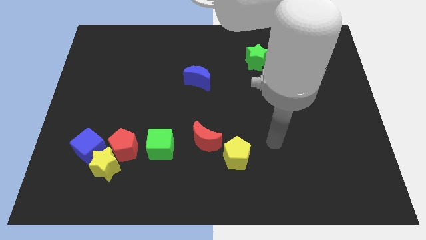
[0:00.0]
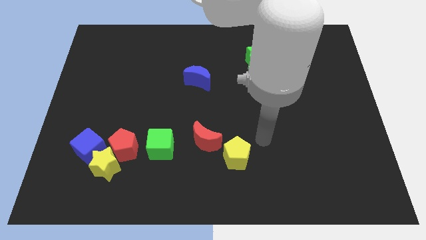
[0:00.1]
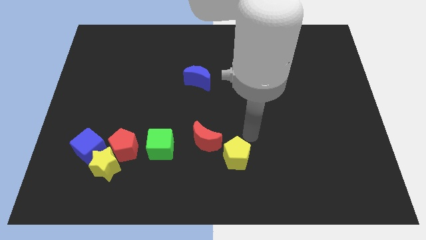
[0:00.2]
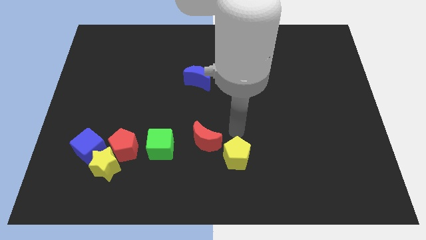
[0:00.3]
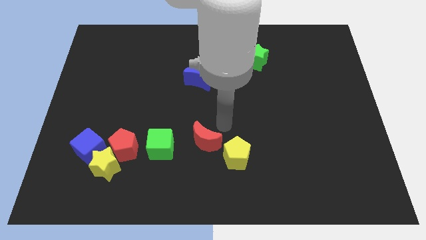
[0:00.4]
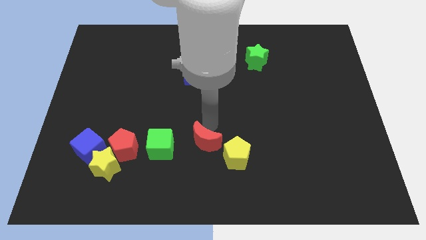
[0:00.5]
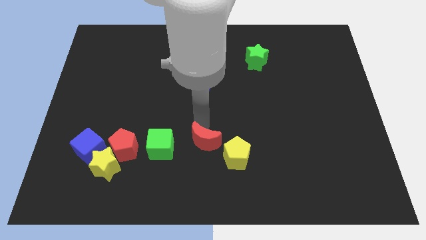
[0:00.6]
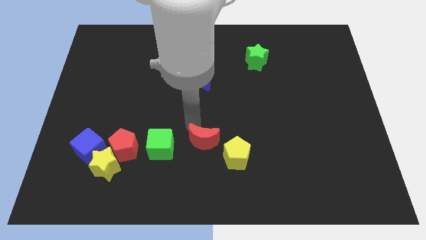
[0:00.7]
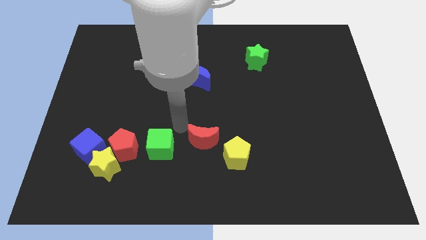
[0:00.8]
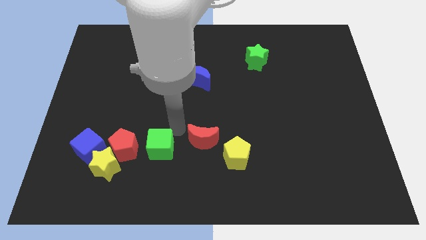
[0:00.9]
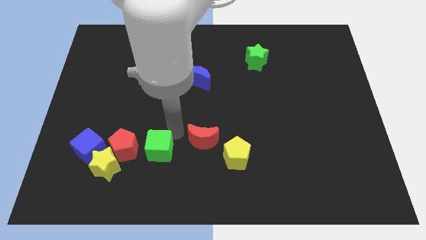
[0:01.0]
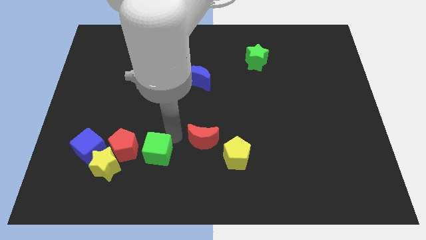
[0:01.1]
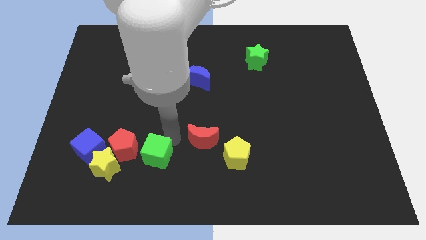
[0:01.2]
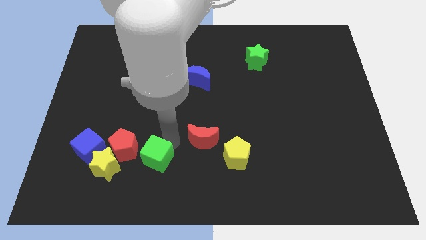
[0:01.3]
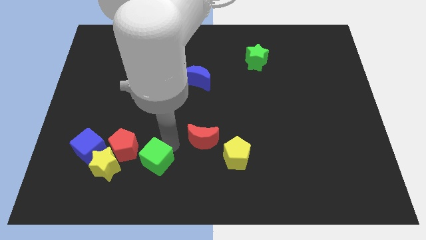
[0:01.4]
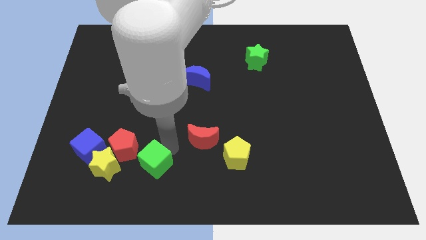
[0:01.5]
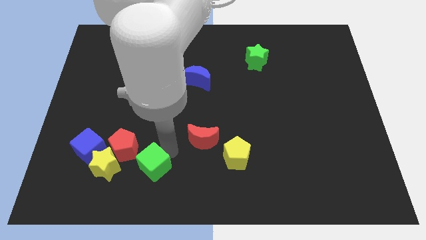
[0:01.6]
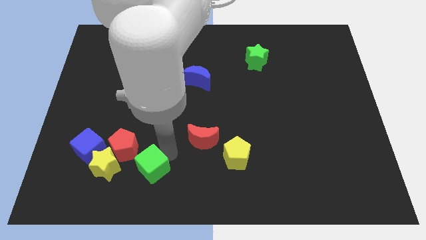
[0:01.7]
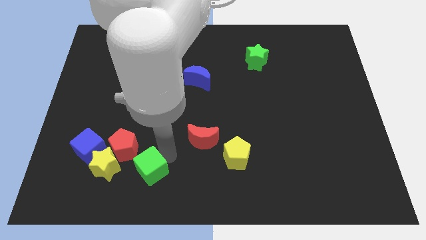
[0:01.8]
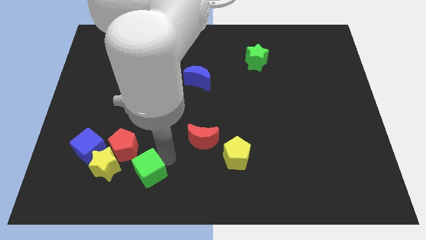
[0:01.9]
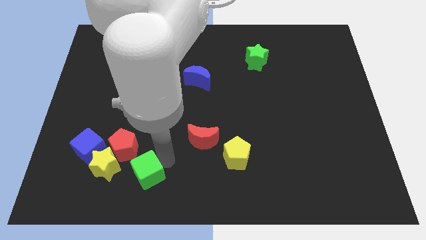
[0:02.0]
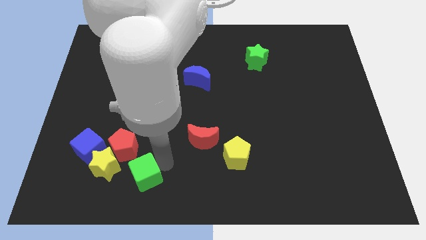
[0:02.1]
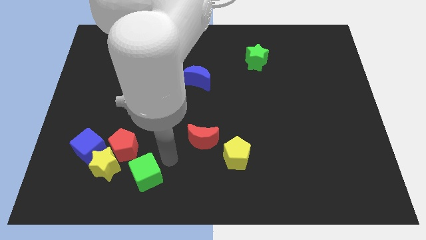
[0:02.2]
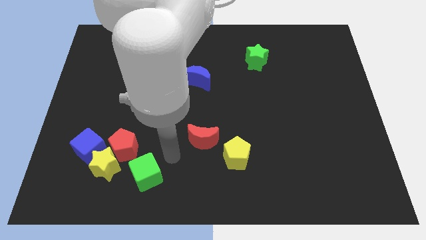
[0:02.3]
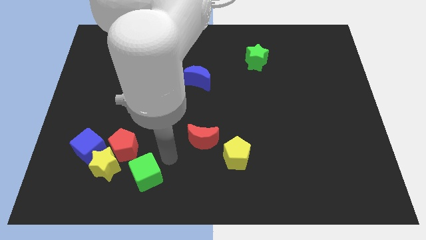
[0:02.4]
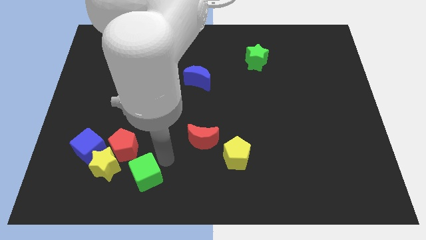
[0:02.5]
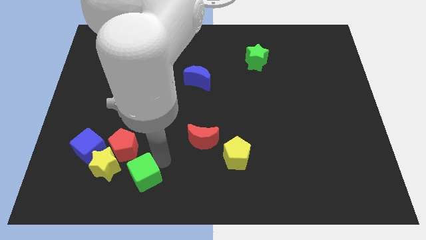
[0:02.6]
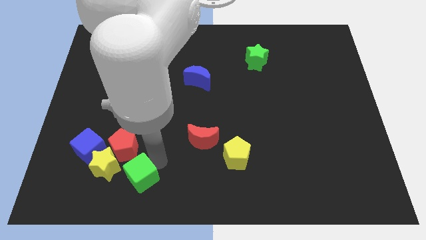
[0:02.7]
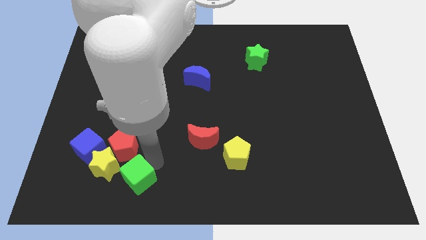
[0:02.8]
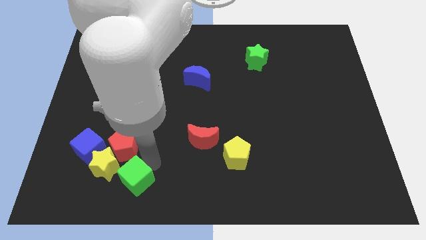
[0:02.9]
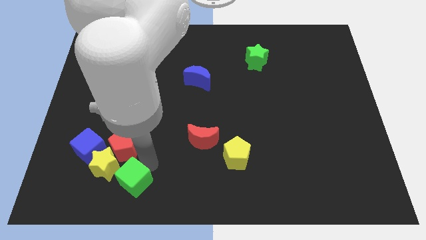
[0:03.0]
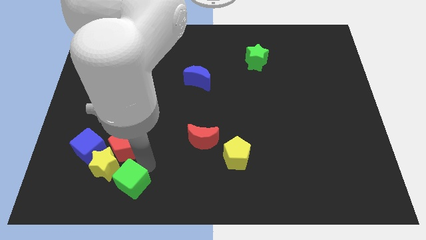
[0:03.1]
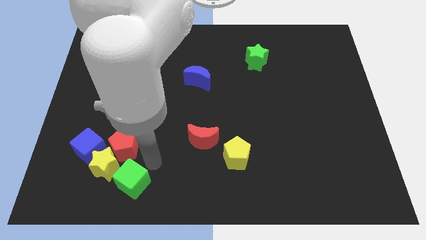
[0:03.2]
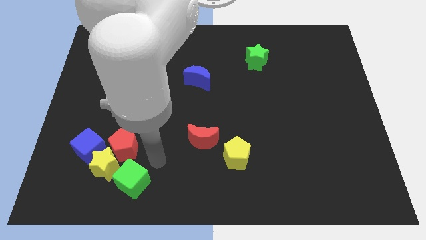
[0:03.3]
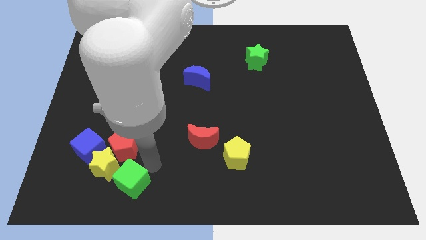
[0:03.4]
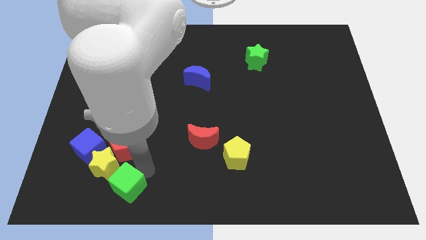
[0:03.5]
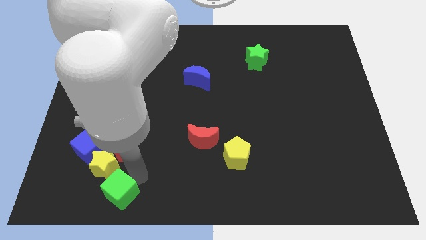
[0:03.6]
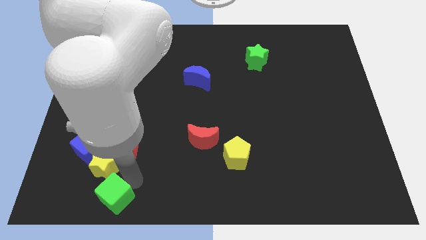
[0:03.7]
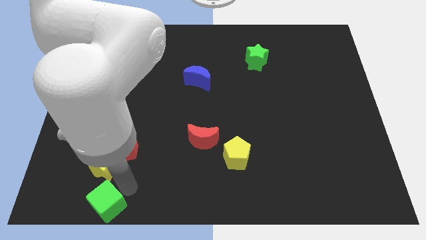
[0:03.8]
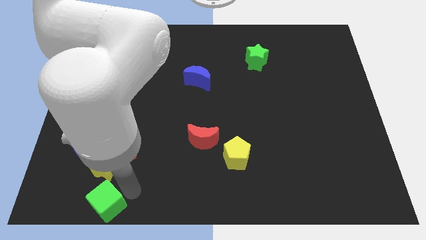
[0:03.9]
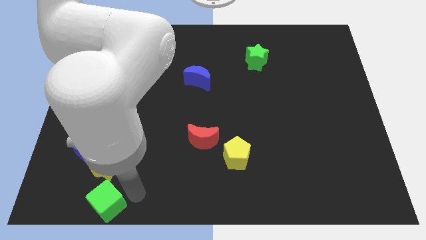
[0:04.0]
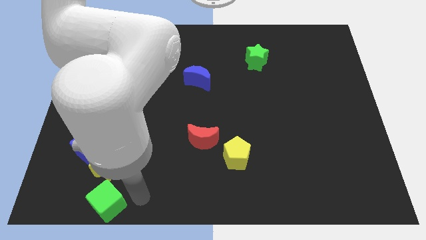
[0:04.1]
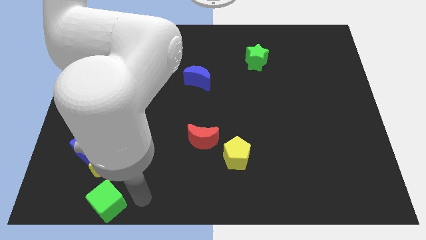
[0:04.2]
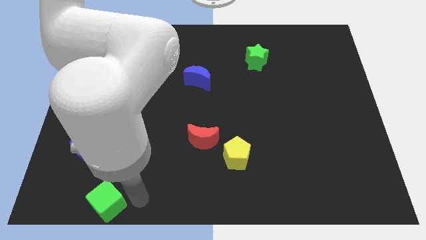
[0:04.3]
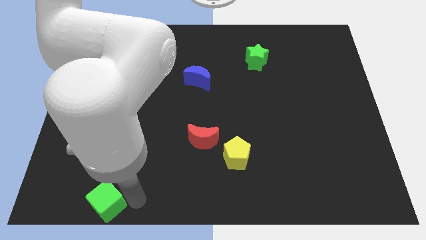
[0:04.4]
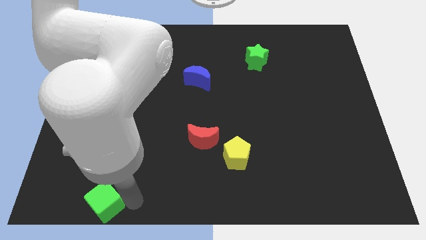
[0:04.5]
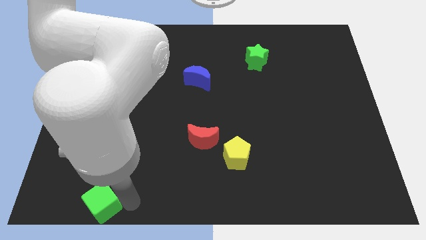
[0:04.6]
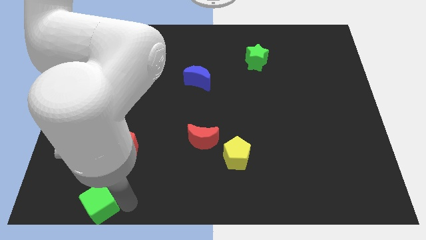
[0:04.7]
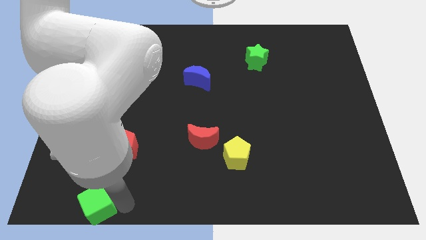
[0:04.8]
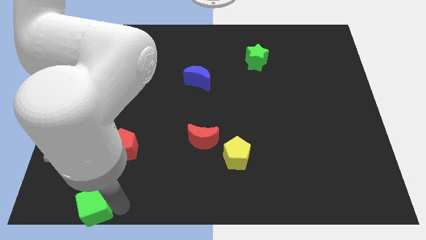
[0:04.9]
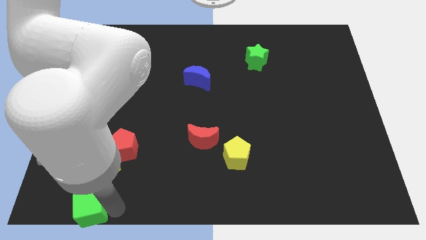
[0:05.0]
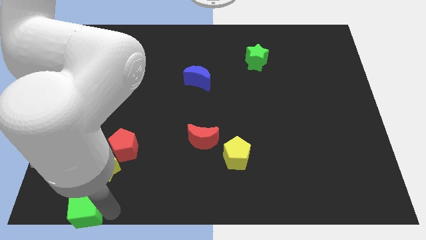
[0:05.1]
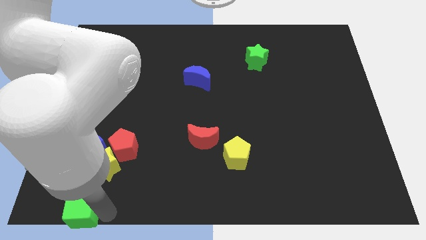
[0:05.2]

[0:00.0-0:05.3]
push the green cube to the bottom left corner
